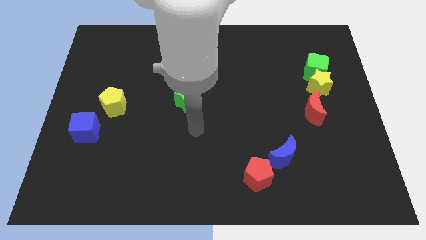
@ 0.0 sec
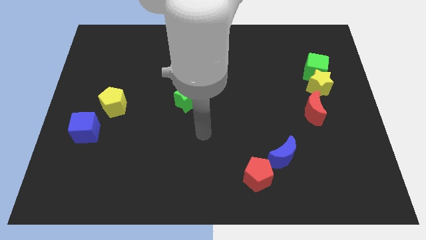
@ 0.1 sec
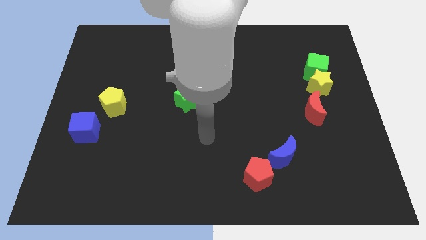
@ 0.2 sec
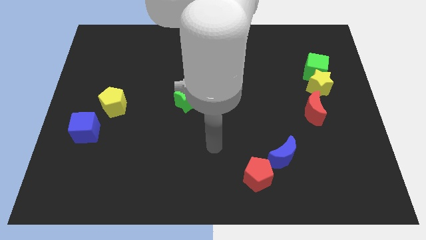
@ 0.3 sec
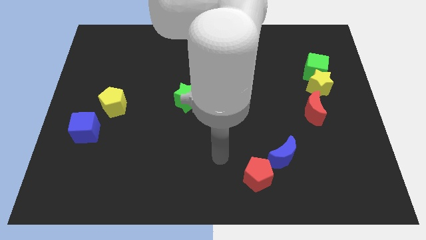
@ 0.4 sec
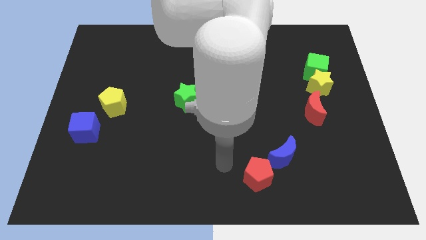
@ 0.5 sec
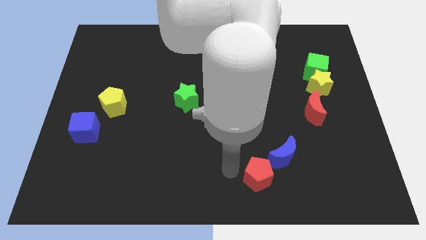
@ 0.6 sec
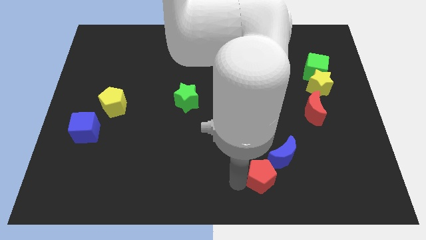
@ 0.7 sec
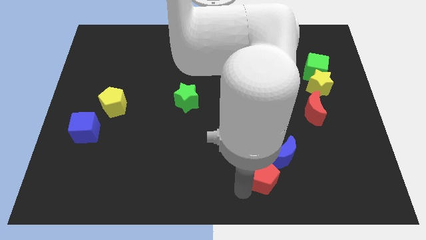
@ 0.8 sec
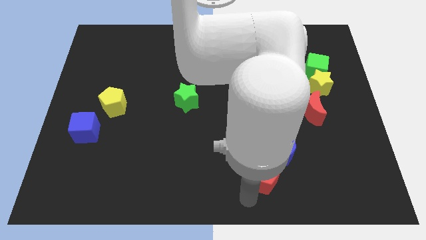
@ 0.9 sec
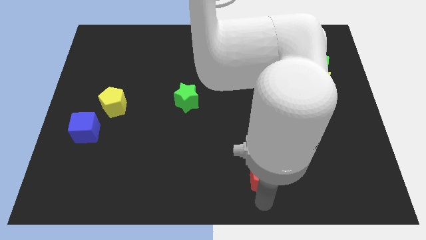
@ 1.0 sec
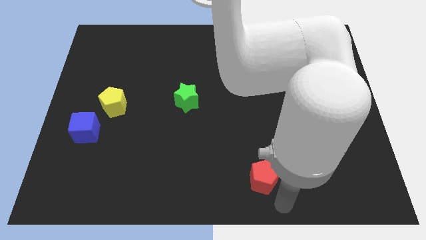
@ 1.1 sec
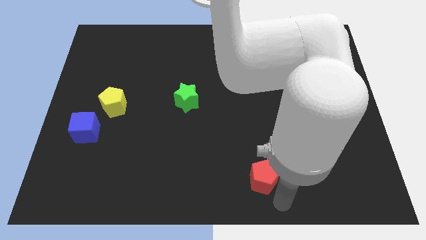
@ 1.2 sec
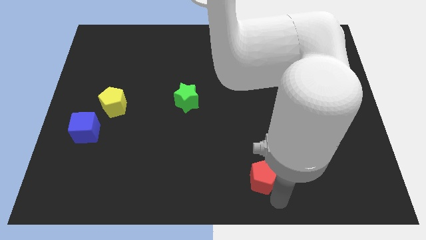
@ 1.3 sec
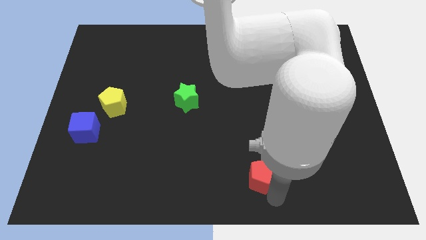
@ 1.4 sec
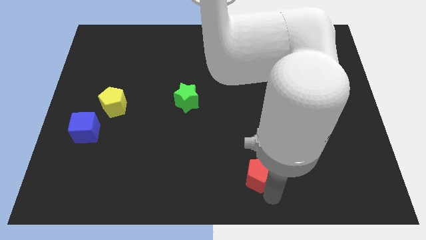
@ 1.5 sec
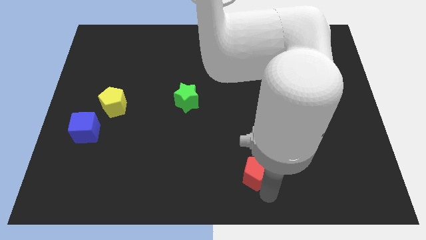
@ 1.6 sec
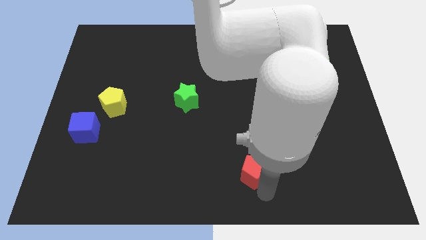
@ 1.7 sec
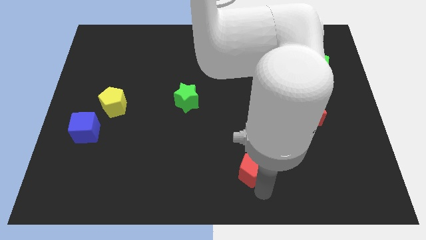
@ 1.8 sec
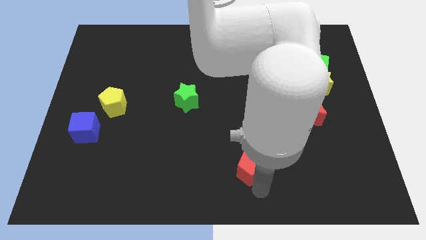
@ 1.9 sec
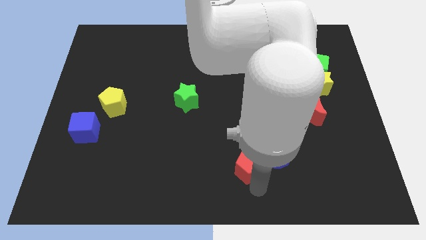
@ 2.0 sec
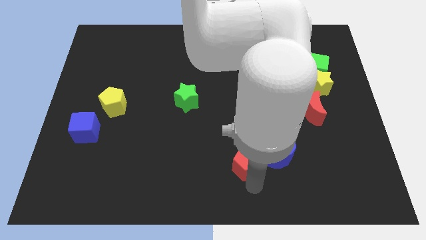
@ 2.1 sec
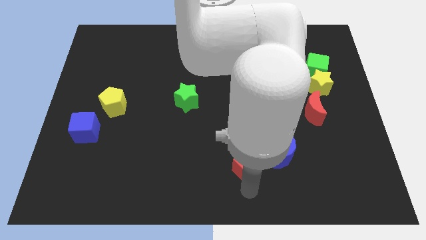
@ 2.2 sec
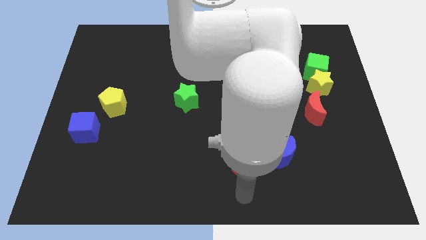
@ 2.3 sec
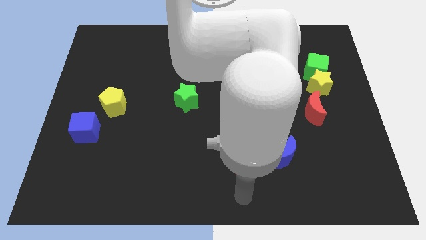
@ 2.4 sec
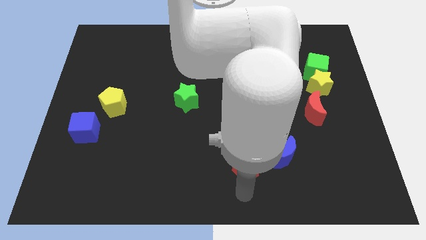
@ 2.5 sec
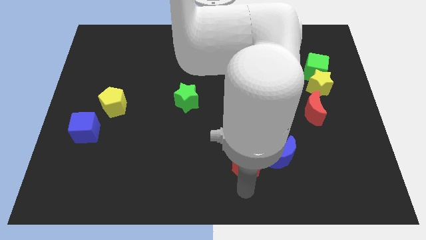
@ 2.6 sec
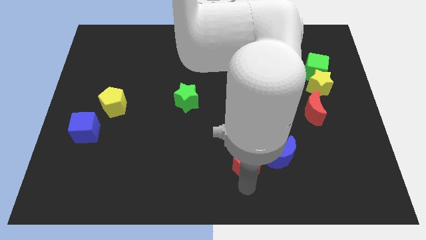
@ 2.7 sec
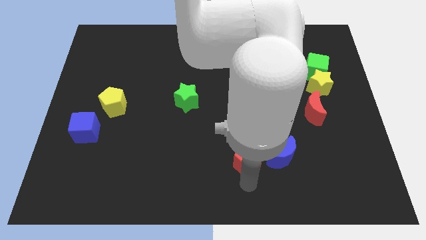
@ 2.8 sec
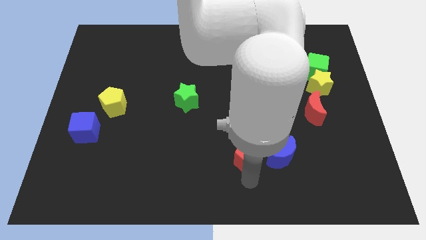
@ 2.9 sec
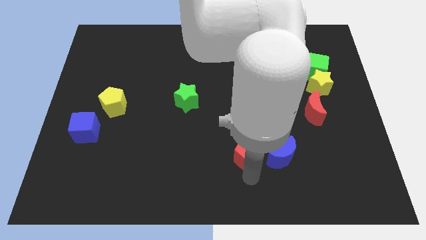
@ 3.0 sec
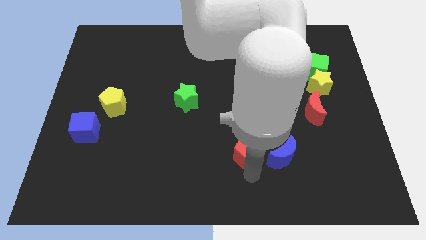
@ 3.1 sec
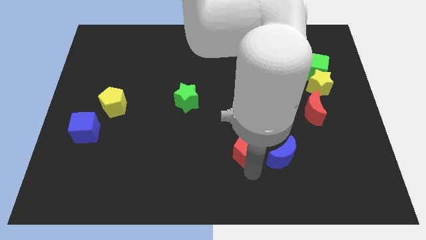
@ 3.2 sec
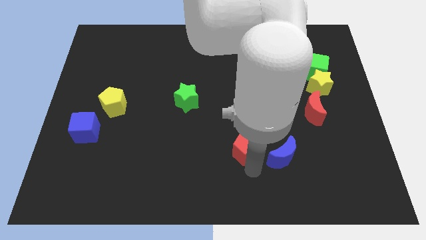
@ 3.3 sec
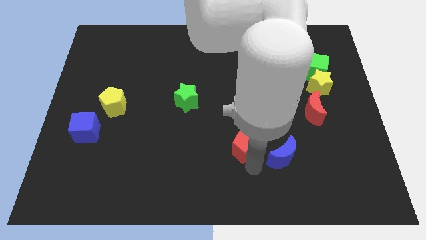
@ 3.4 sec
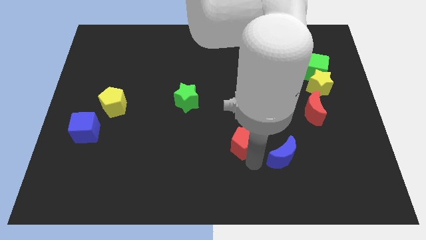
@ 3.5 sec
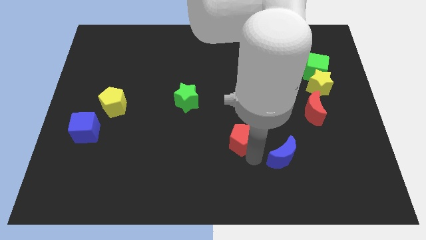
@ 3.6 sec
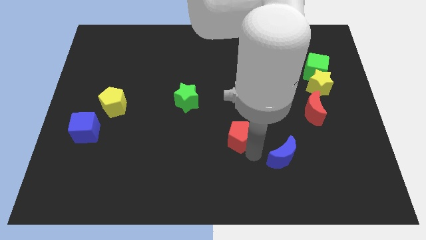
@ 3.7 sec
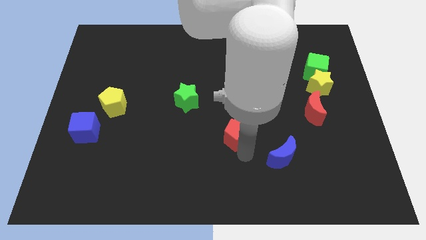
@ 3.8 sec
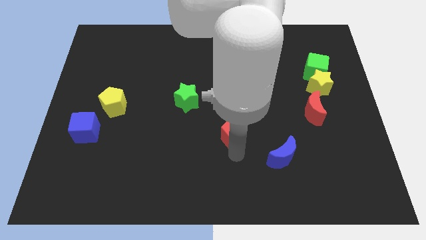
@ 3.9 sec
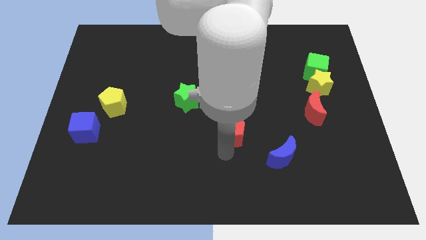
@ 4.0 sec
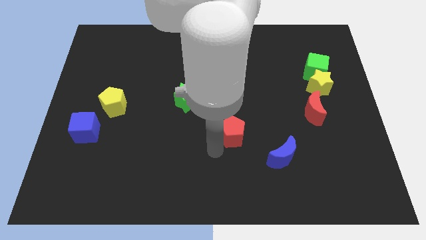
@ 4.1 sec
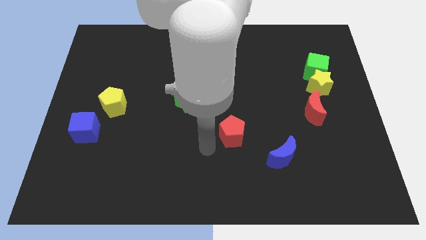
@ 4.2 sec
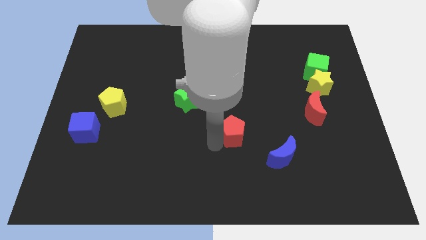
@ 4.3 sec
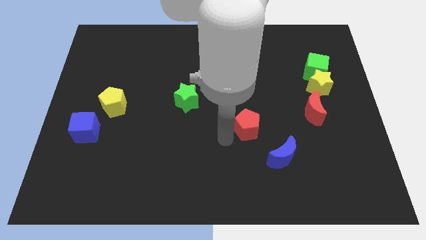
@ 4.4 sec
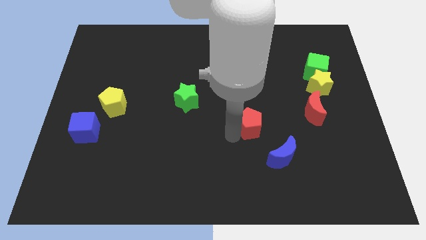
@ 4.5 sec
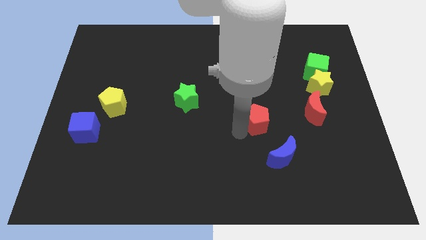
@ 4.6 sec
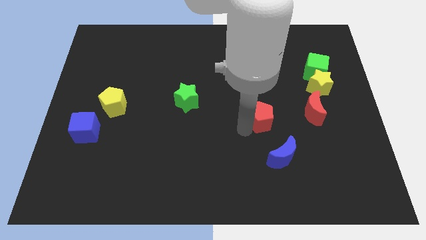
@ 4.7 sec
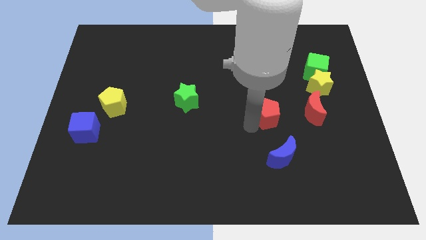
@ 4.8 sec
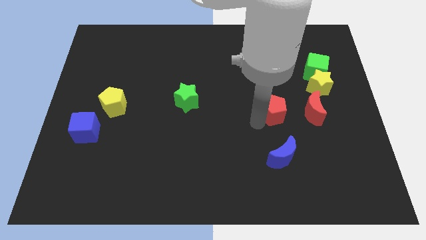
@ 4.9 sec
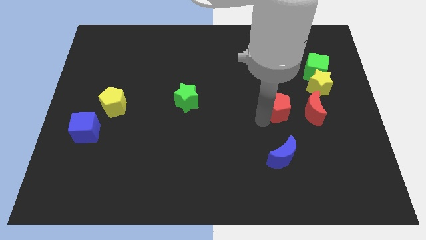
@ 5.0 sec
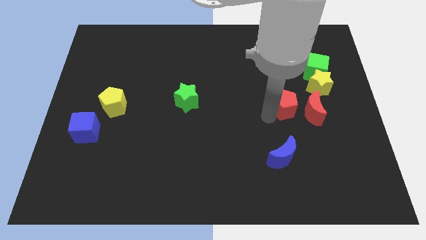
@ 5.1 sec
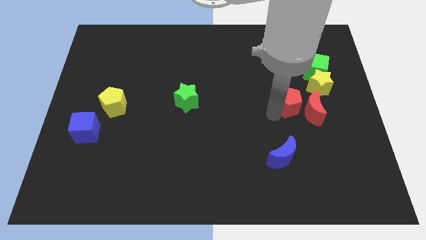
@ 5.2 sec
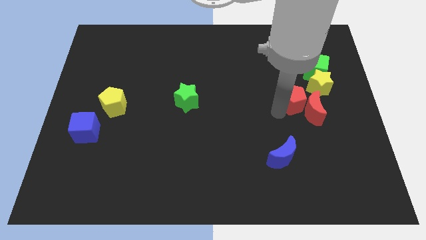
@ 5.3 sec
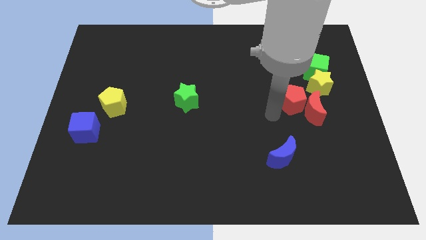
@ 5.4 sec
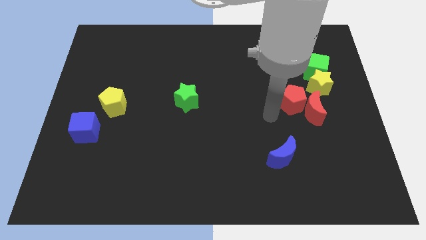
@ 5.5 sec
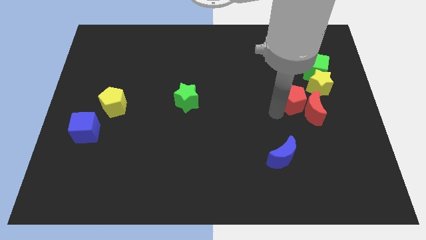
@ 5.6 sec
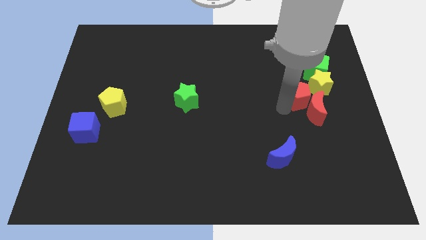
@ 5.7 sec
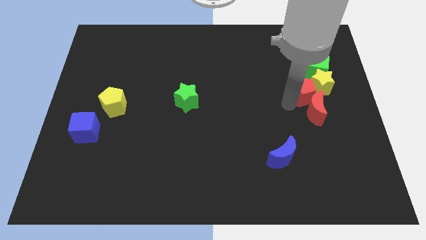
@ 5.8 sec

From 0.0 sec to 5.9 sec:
move the red pentagon towards the yellow star

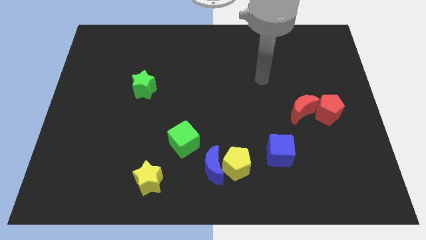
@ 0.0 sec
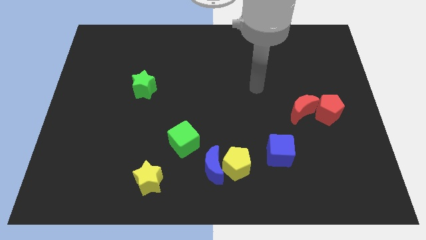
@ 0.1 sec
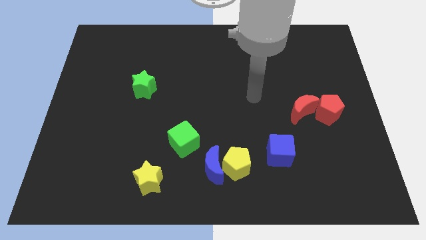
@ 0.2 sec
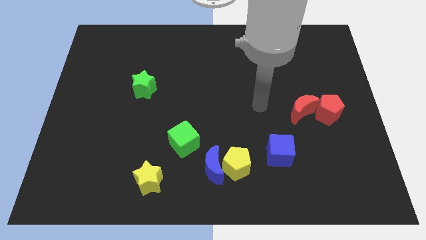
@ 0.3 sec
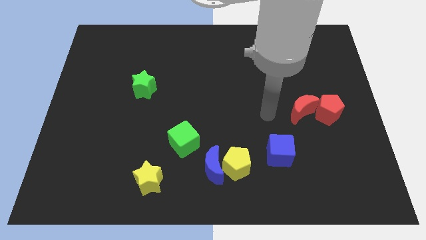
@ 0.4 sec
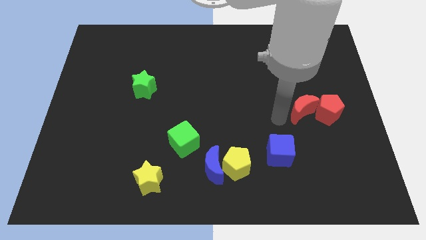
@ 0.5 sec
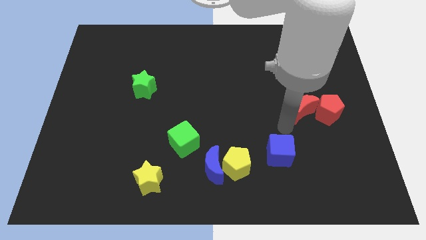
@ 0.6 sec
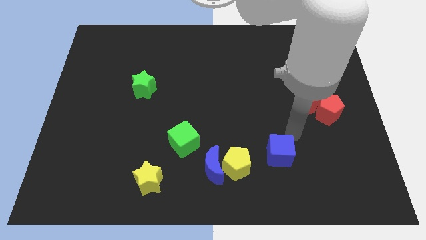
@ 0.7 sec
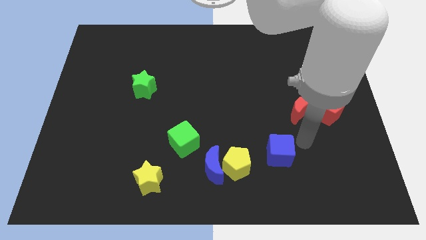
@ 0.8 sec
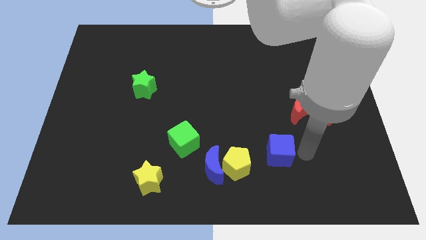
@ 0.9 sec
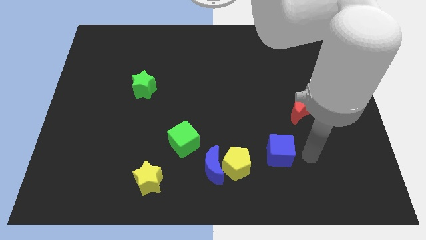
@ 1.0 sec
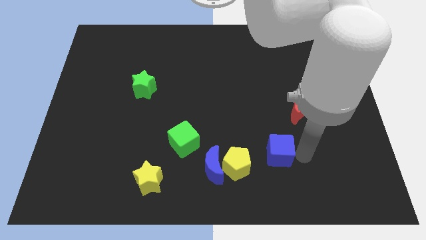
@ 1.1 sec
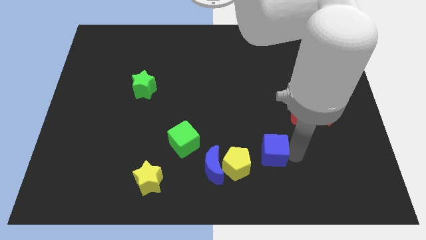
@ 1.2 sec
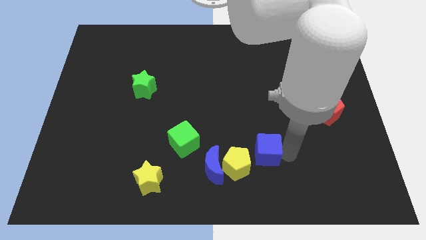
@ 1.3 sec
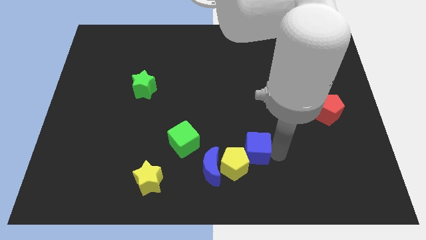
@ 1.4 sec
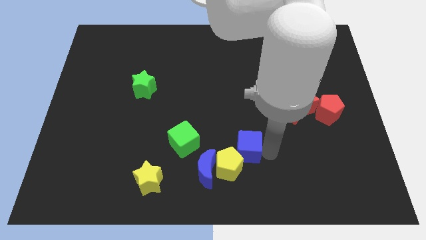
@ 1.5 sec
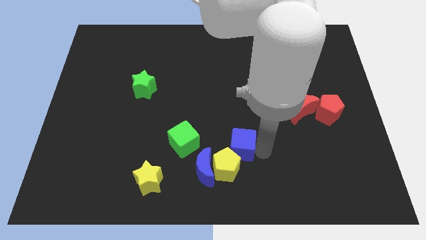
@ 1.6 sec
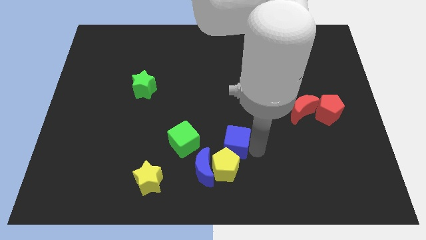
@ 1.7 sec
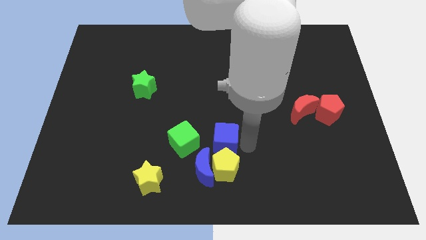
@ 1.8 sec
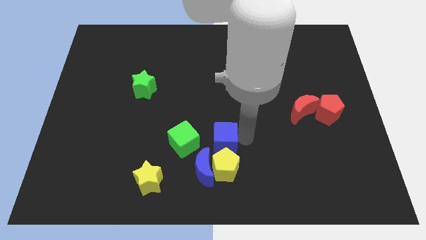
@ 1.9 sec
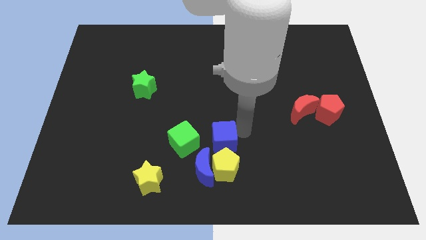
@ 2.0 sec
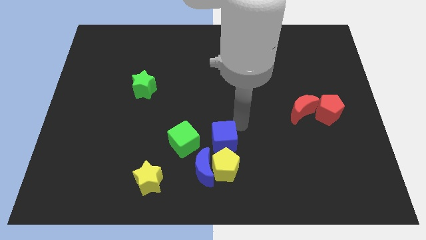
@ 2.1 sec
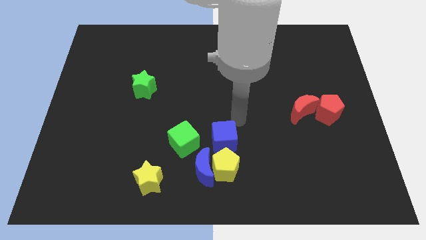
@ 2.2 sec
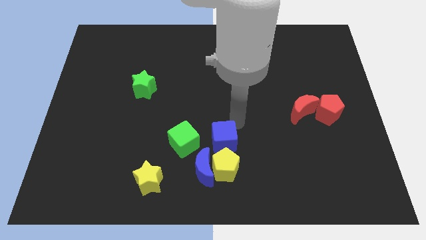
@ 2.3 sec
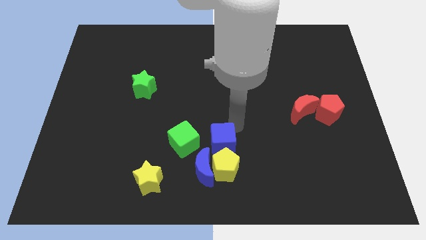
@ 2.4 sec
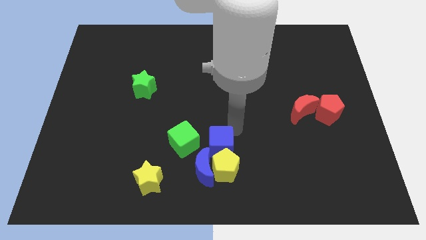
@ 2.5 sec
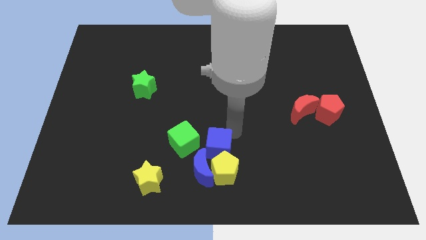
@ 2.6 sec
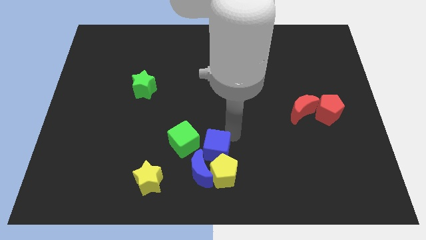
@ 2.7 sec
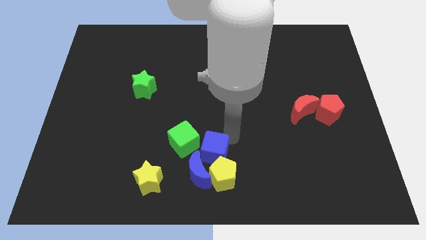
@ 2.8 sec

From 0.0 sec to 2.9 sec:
put the blue cube to the blue moon
